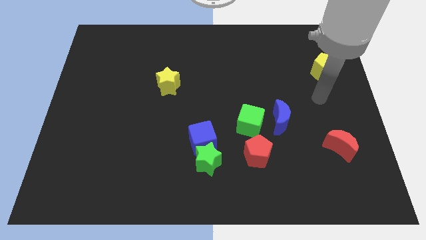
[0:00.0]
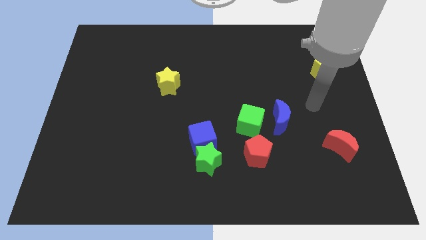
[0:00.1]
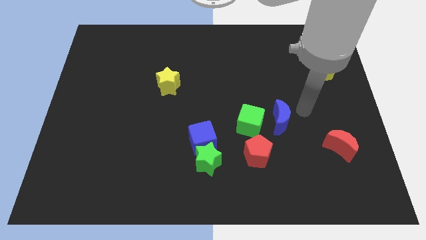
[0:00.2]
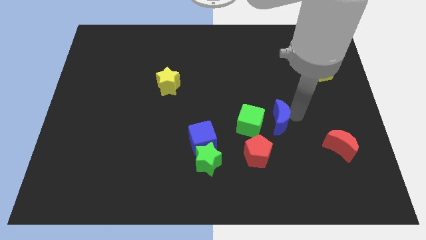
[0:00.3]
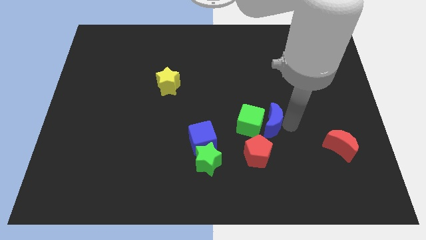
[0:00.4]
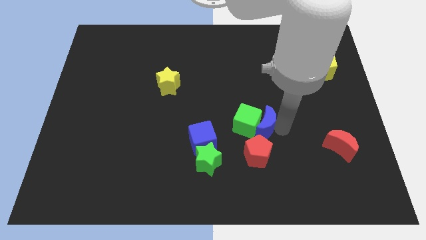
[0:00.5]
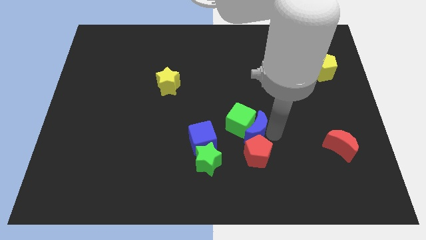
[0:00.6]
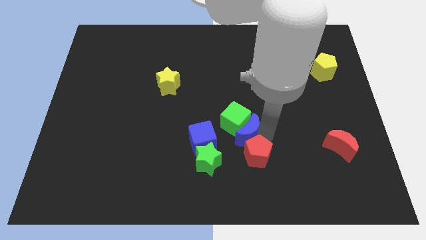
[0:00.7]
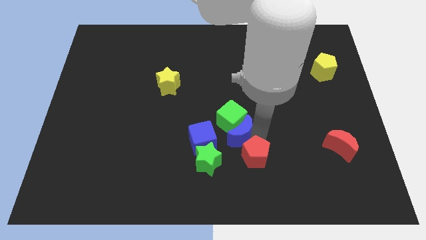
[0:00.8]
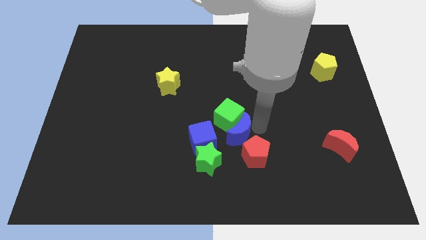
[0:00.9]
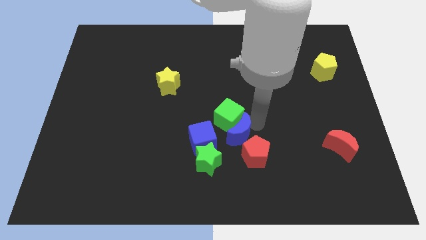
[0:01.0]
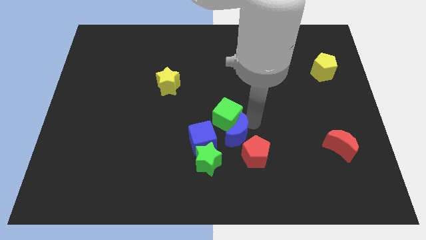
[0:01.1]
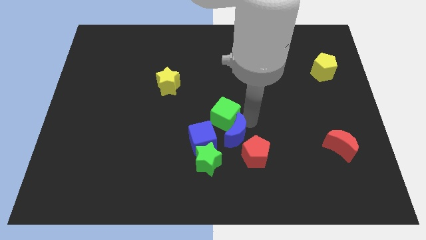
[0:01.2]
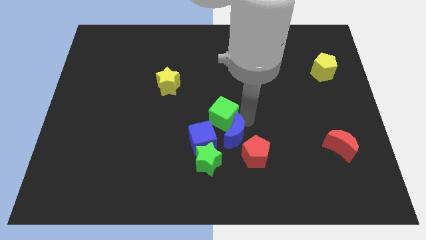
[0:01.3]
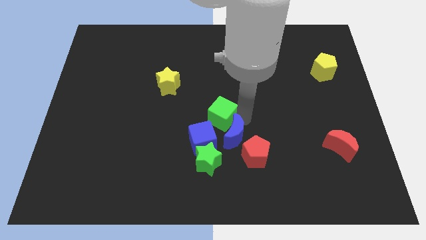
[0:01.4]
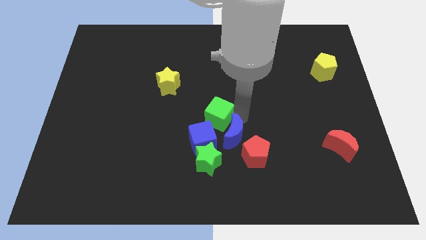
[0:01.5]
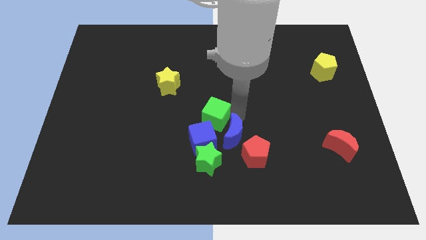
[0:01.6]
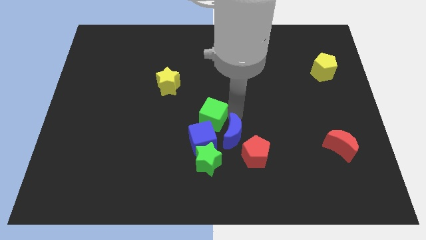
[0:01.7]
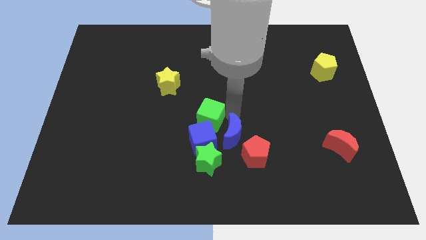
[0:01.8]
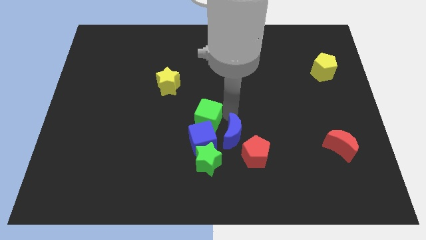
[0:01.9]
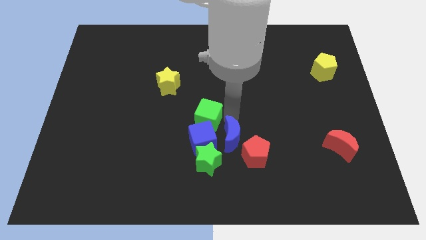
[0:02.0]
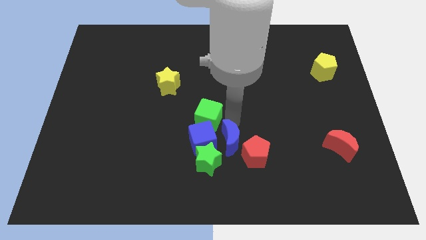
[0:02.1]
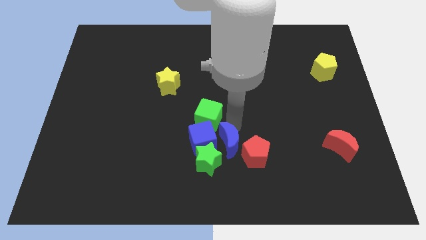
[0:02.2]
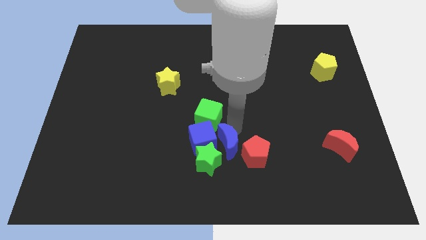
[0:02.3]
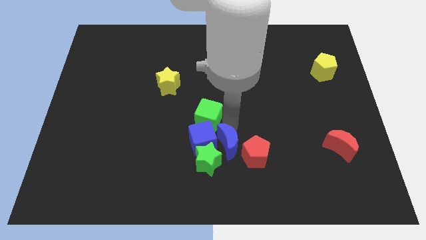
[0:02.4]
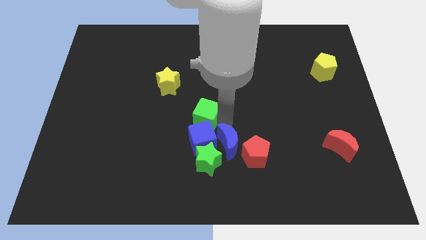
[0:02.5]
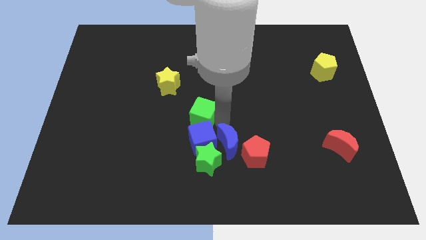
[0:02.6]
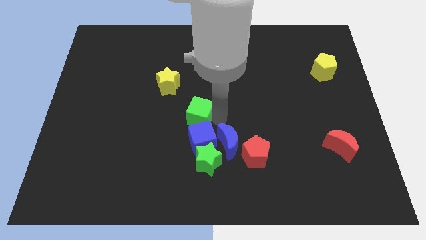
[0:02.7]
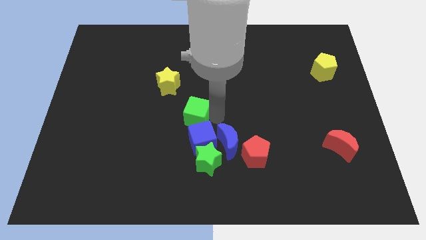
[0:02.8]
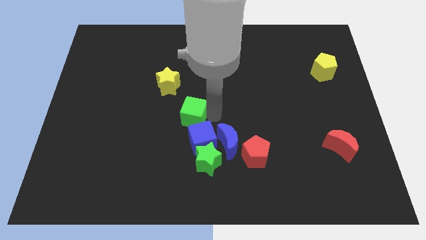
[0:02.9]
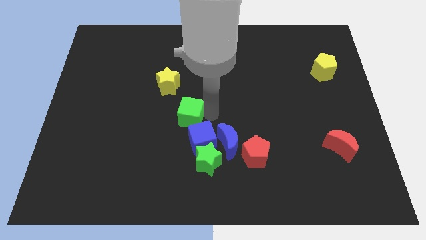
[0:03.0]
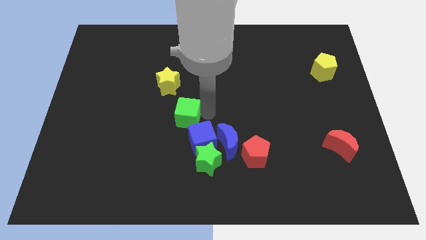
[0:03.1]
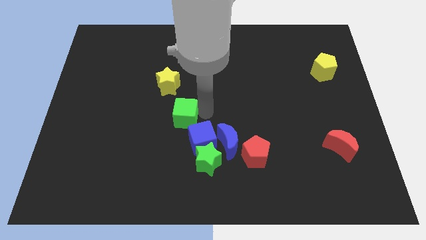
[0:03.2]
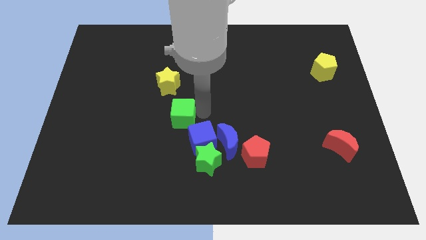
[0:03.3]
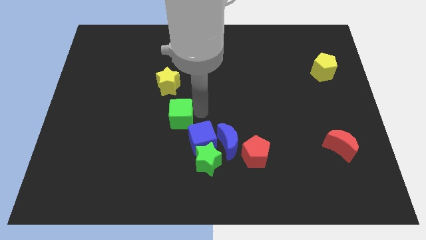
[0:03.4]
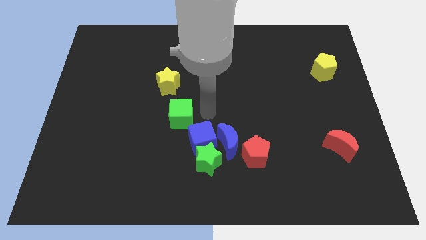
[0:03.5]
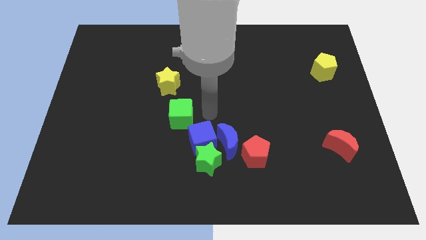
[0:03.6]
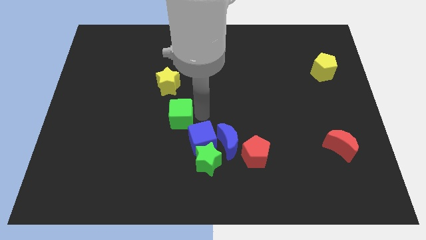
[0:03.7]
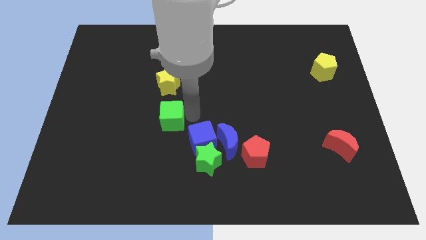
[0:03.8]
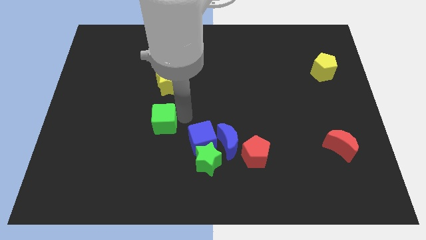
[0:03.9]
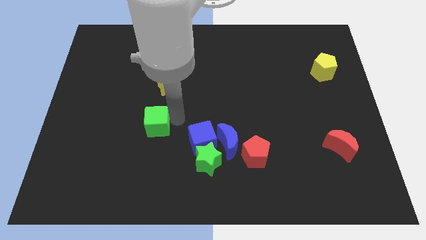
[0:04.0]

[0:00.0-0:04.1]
slide the green cube to the left

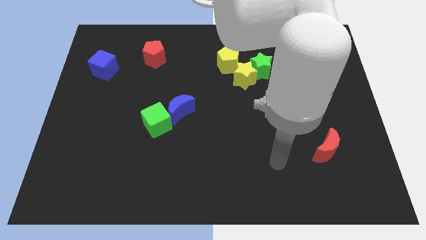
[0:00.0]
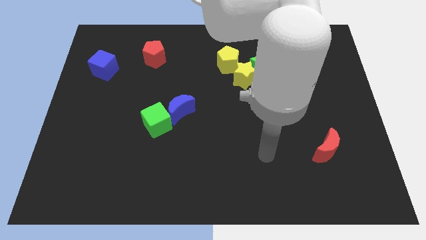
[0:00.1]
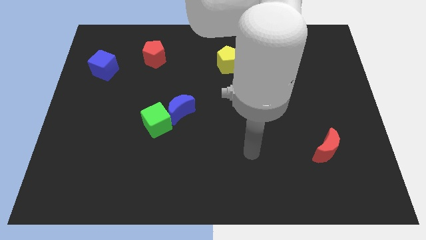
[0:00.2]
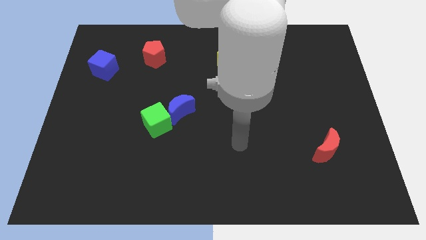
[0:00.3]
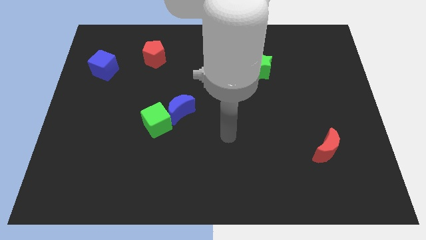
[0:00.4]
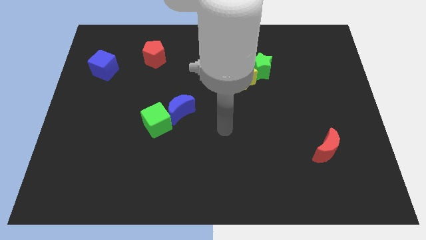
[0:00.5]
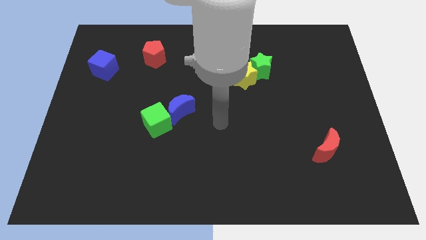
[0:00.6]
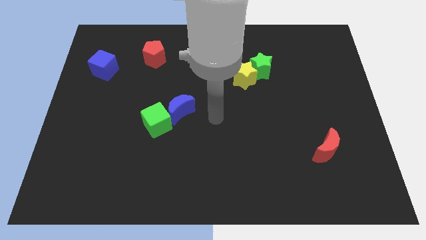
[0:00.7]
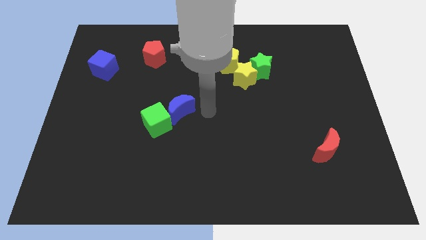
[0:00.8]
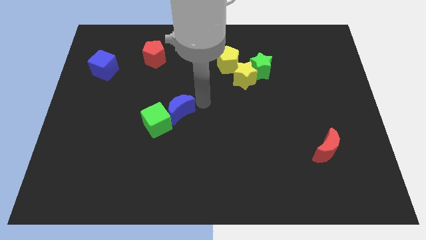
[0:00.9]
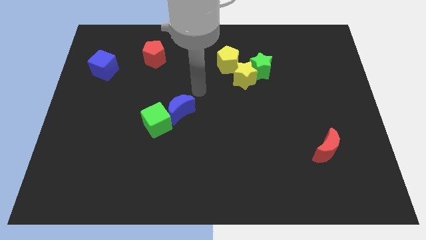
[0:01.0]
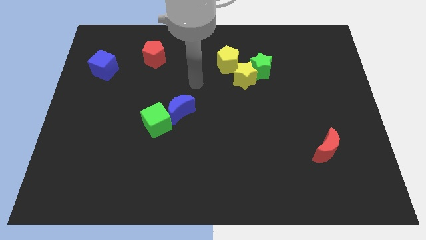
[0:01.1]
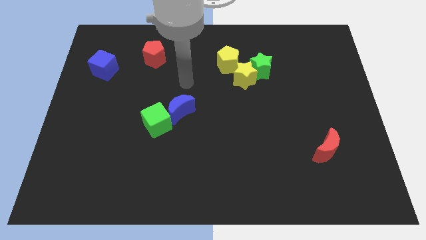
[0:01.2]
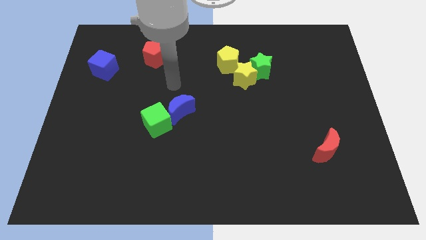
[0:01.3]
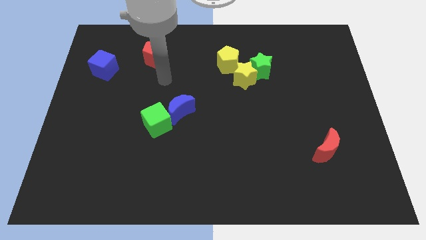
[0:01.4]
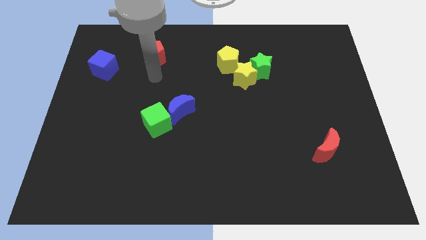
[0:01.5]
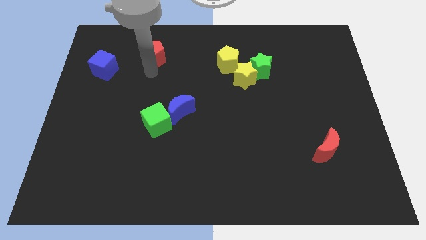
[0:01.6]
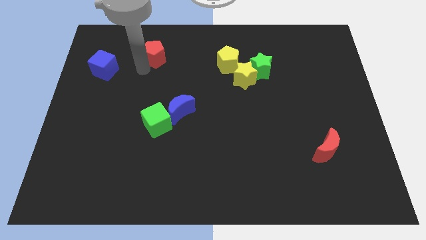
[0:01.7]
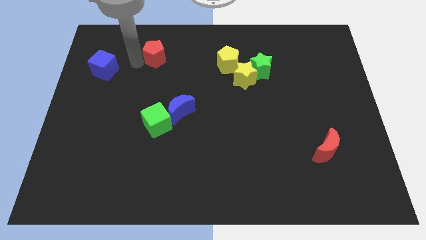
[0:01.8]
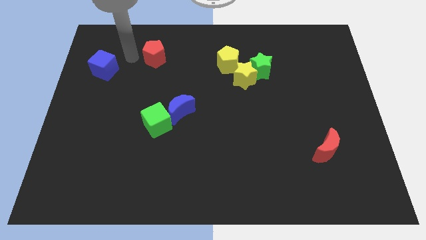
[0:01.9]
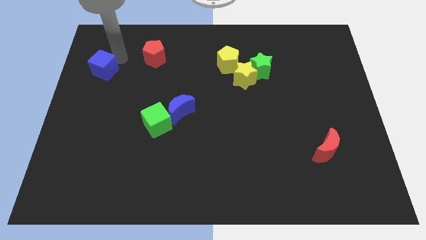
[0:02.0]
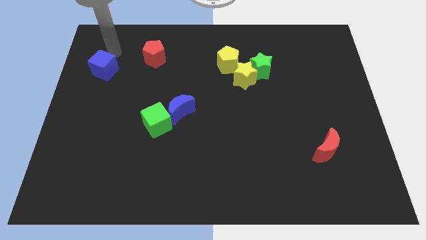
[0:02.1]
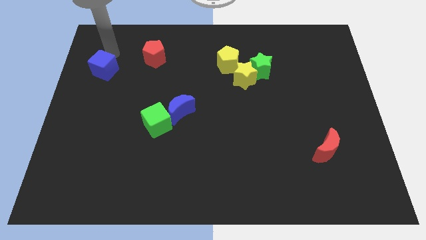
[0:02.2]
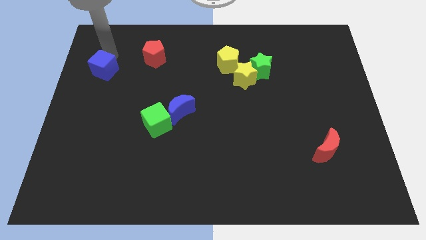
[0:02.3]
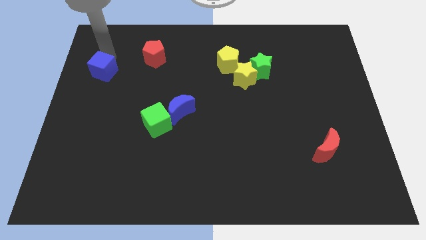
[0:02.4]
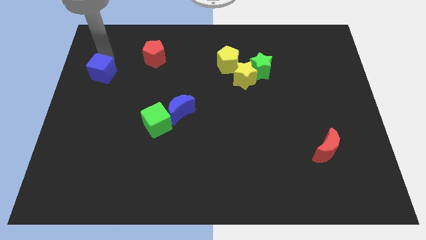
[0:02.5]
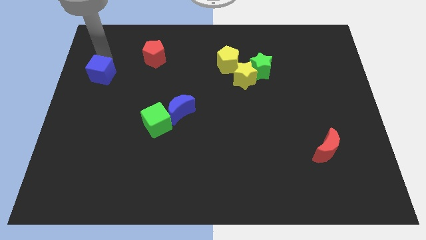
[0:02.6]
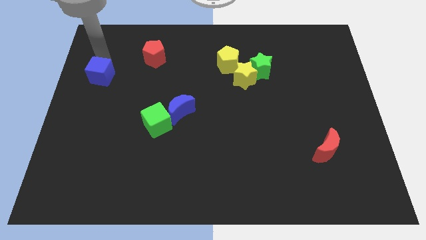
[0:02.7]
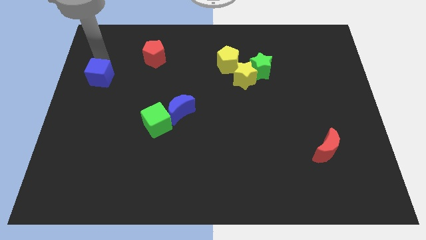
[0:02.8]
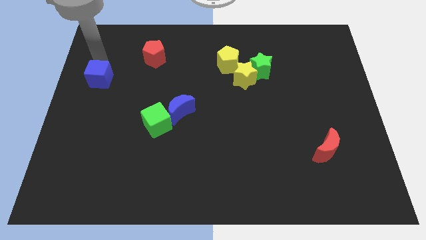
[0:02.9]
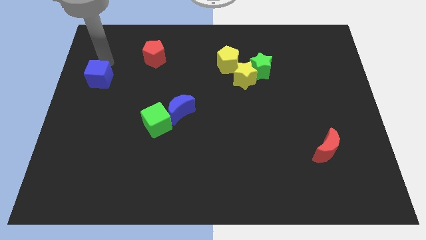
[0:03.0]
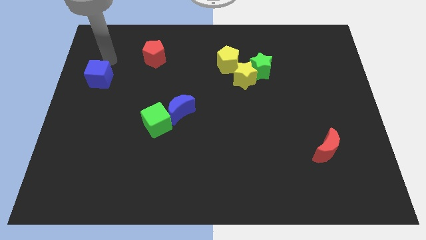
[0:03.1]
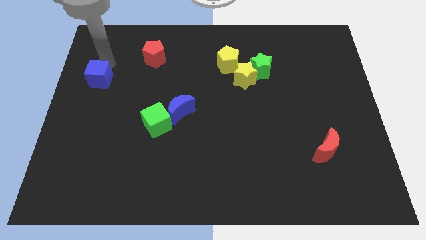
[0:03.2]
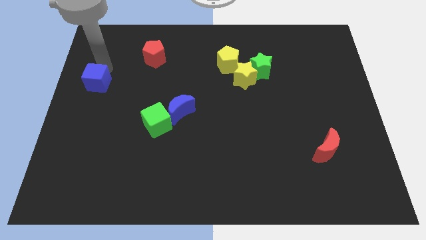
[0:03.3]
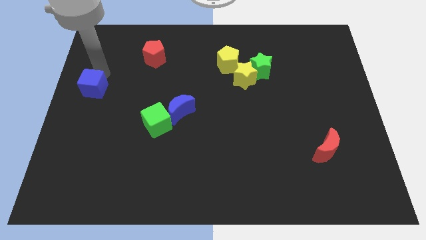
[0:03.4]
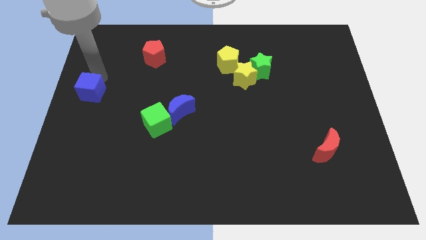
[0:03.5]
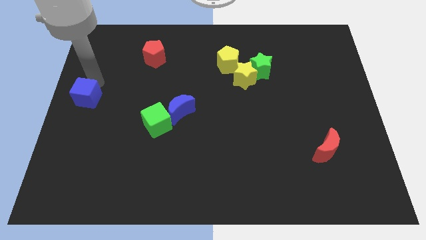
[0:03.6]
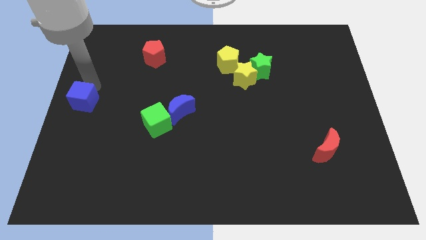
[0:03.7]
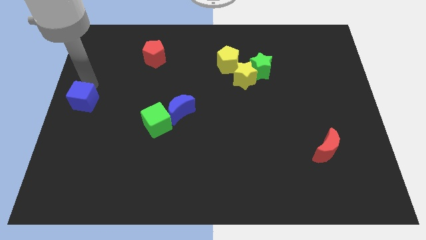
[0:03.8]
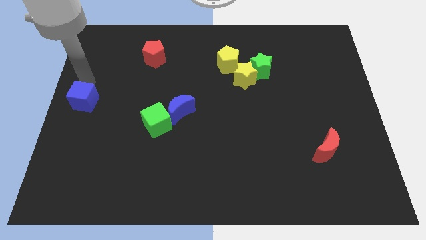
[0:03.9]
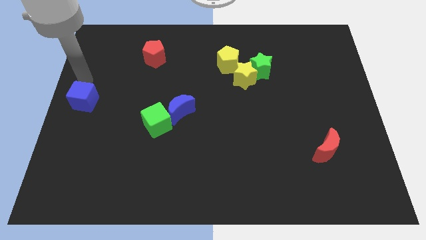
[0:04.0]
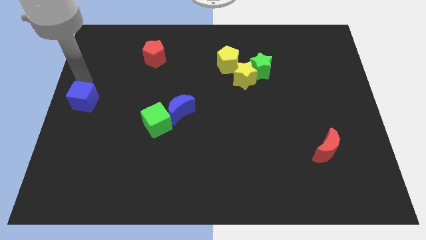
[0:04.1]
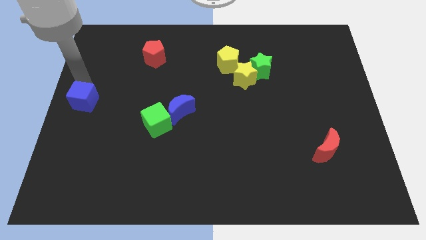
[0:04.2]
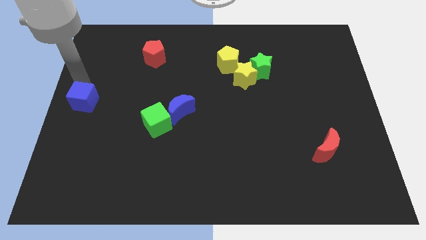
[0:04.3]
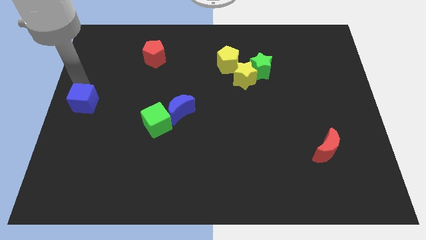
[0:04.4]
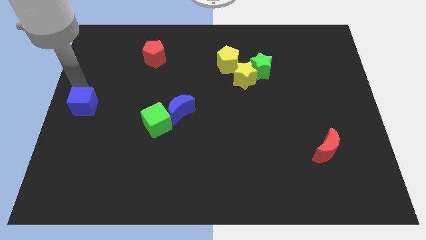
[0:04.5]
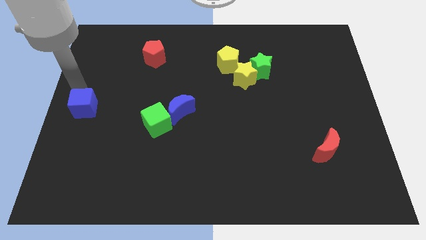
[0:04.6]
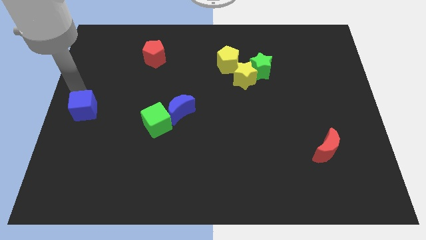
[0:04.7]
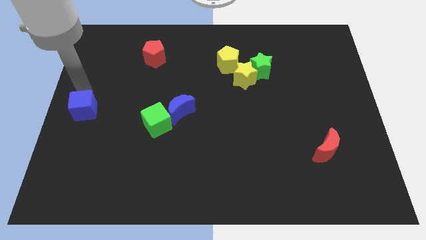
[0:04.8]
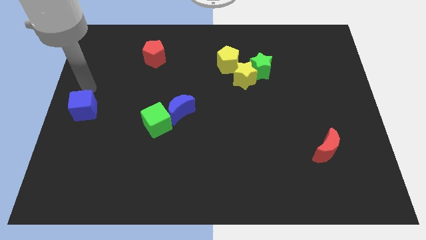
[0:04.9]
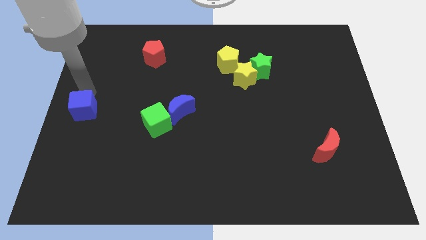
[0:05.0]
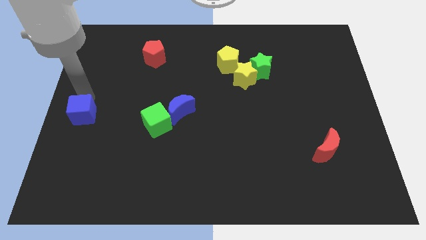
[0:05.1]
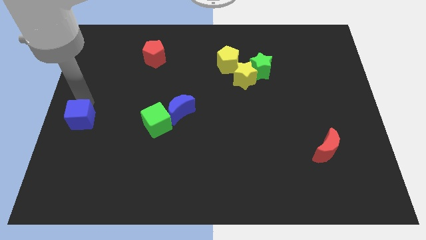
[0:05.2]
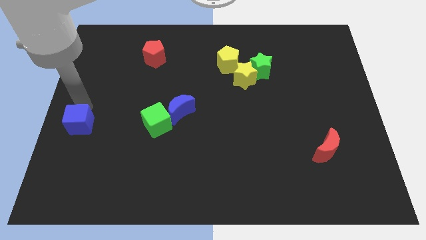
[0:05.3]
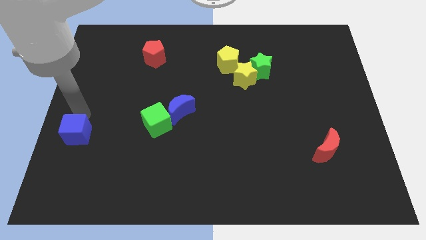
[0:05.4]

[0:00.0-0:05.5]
slide the blue cube downwards
